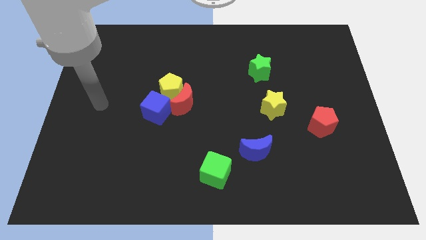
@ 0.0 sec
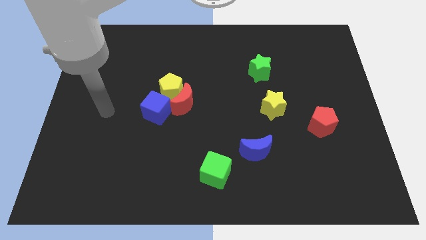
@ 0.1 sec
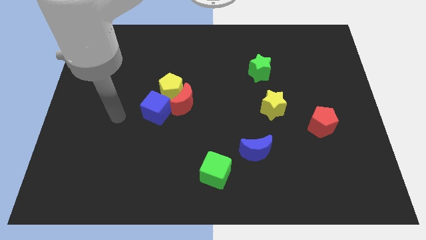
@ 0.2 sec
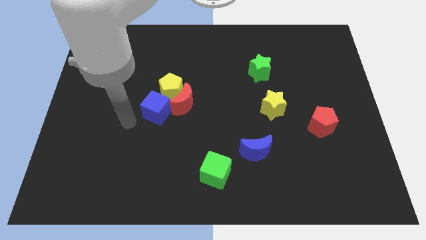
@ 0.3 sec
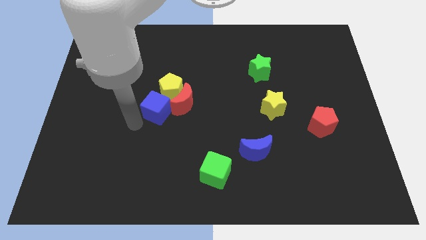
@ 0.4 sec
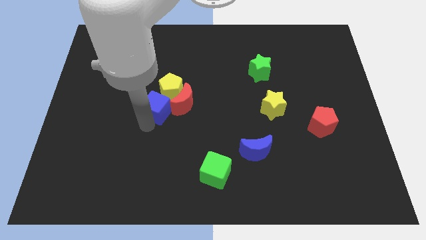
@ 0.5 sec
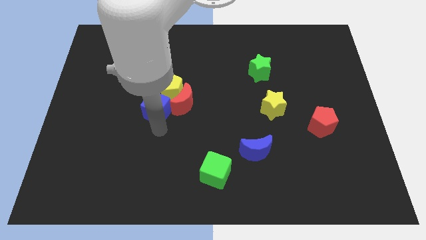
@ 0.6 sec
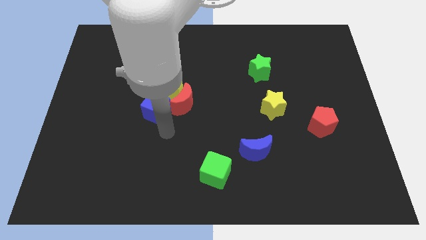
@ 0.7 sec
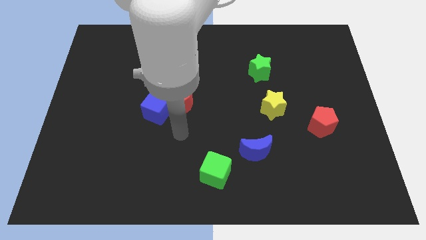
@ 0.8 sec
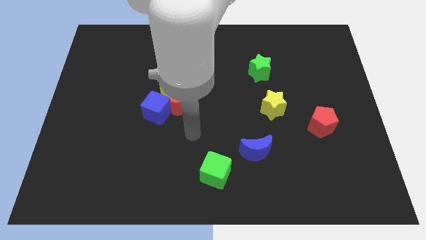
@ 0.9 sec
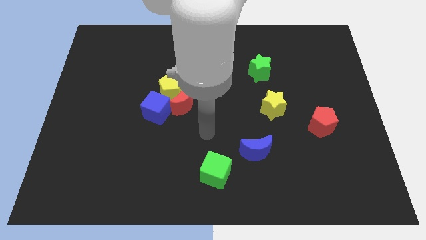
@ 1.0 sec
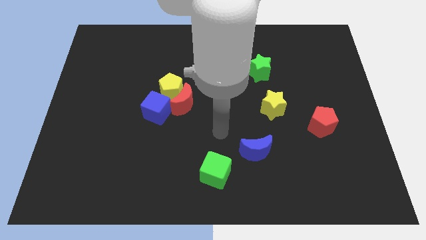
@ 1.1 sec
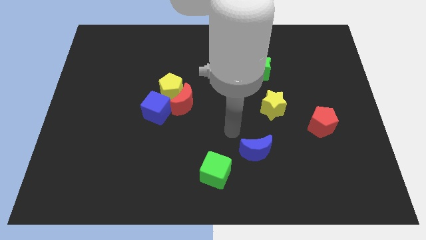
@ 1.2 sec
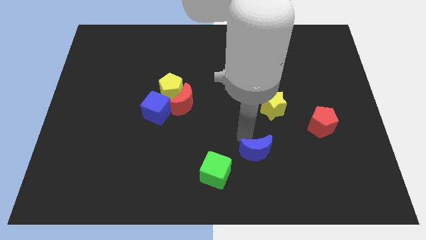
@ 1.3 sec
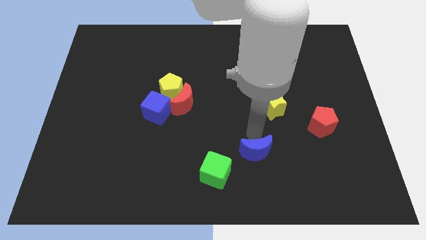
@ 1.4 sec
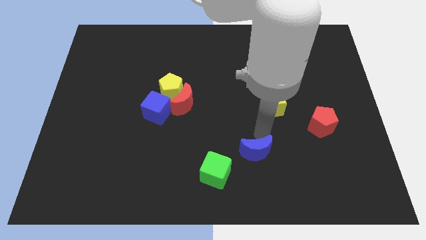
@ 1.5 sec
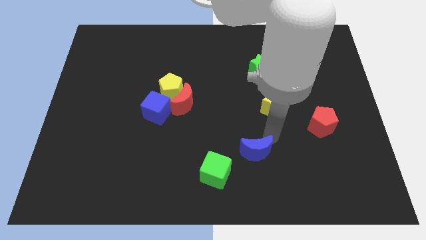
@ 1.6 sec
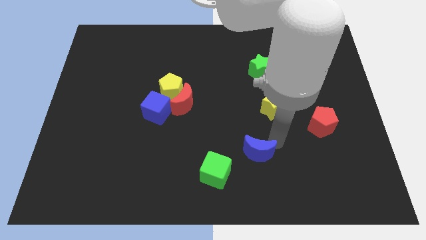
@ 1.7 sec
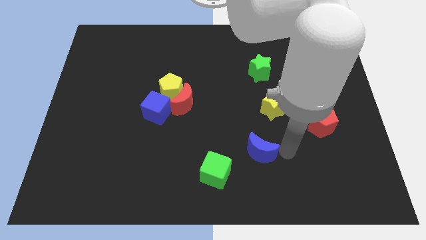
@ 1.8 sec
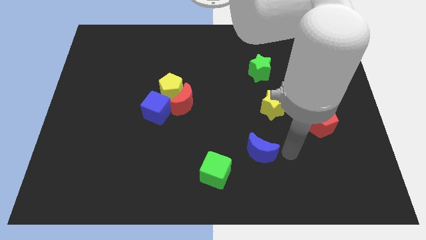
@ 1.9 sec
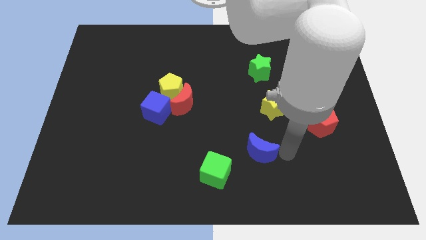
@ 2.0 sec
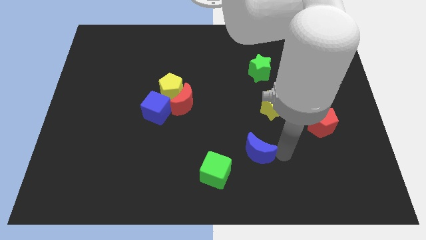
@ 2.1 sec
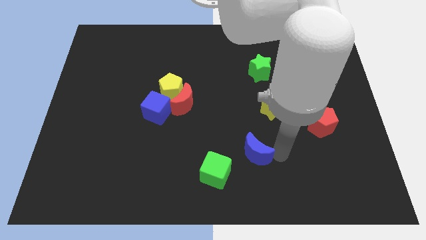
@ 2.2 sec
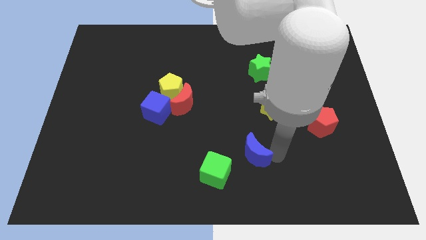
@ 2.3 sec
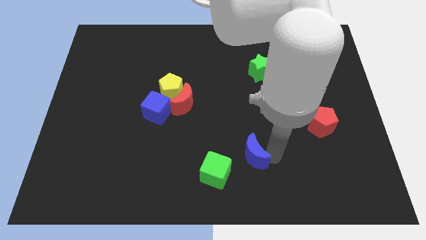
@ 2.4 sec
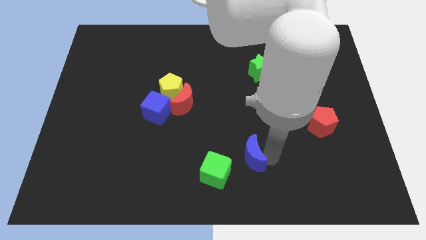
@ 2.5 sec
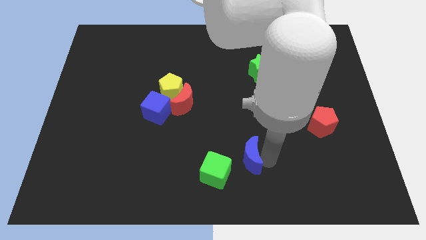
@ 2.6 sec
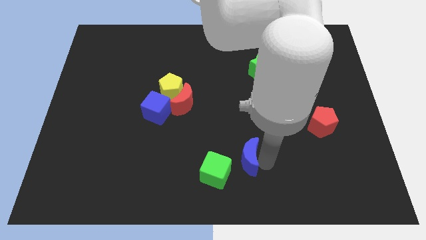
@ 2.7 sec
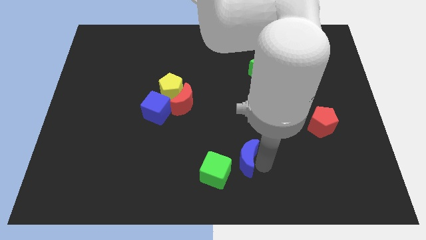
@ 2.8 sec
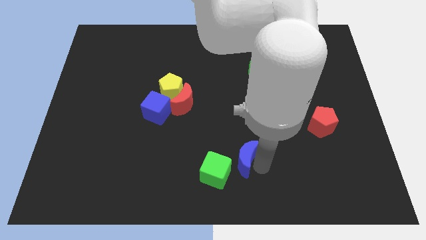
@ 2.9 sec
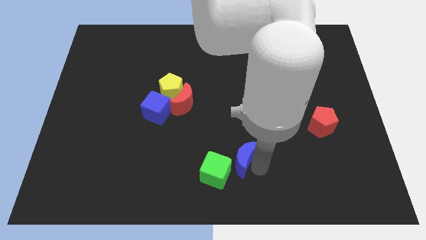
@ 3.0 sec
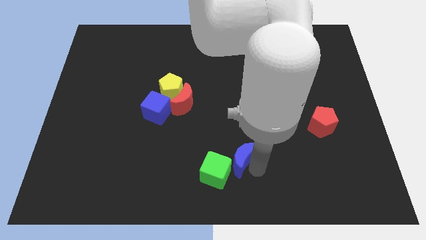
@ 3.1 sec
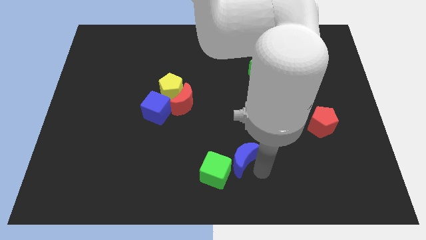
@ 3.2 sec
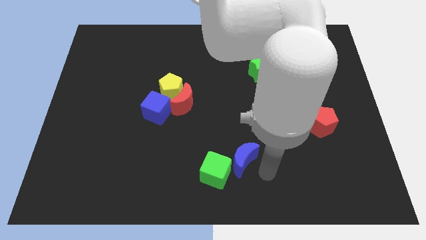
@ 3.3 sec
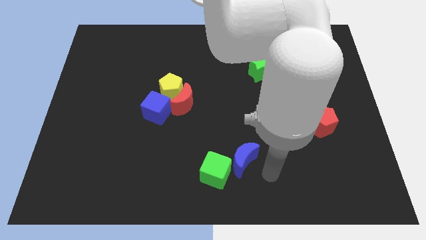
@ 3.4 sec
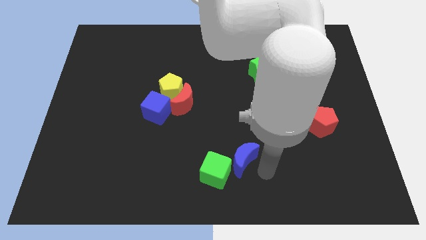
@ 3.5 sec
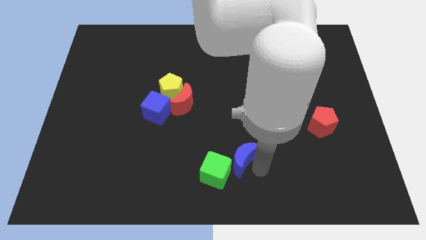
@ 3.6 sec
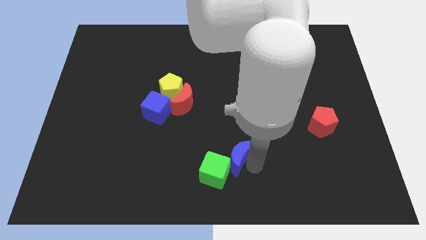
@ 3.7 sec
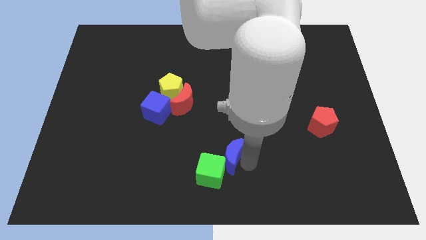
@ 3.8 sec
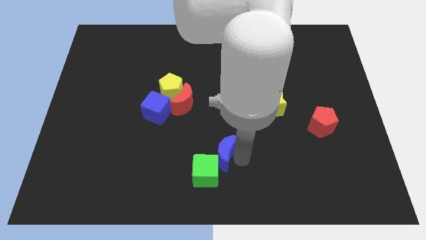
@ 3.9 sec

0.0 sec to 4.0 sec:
move the blue moon left a little bit

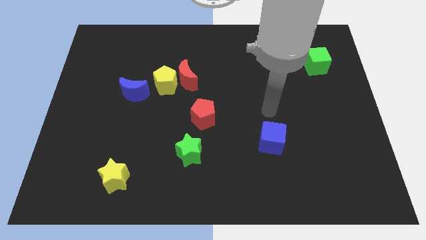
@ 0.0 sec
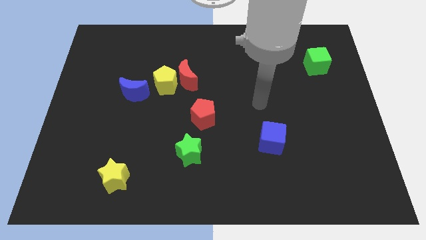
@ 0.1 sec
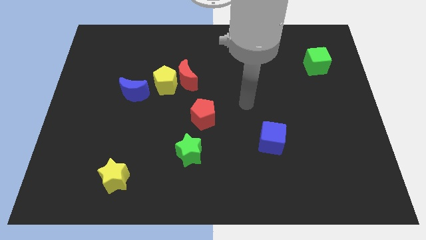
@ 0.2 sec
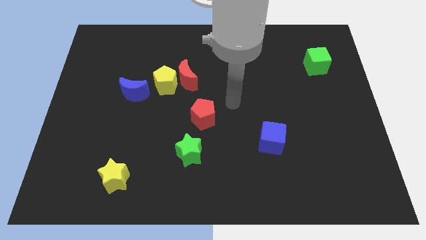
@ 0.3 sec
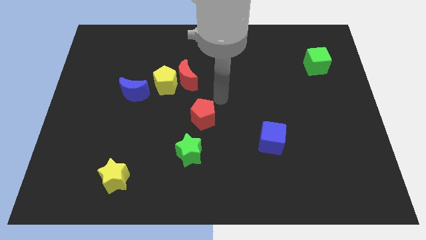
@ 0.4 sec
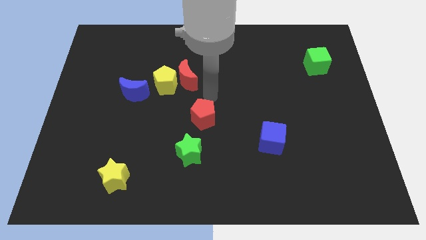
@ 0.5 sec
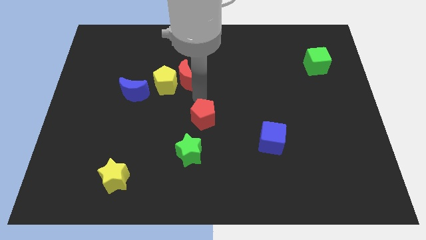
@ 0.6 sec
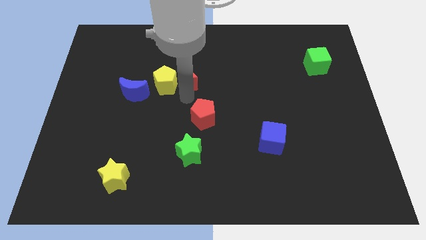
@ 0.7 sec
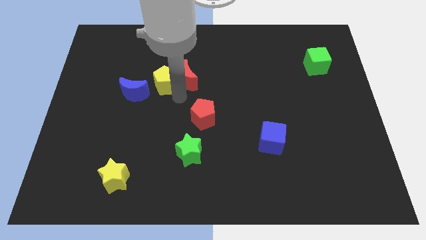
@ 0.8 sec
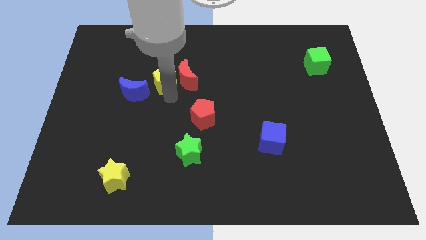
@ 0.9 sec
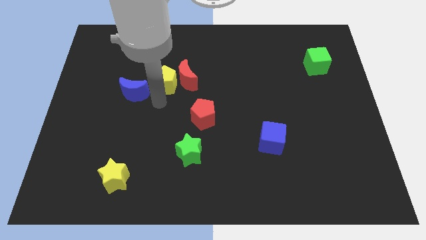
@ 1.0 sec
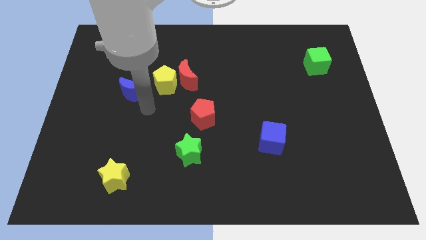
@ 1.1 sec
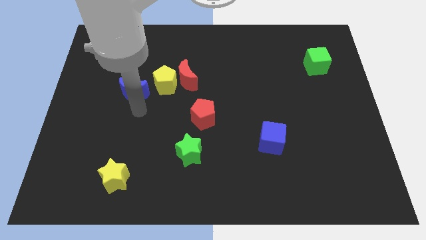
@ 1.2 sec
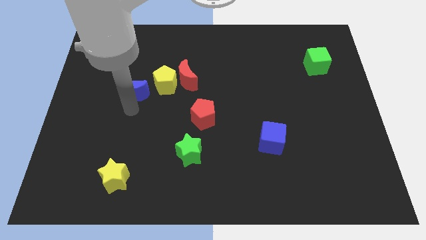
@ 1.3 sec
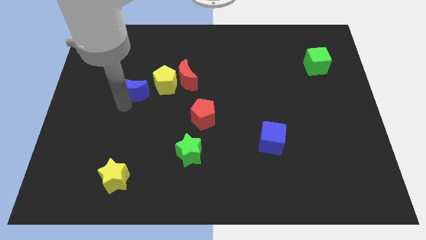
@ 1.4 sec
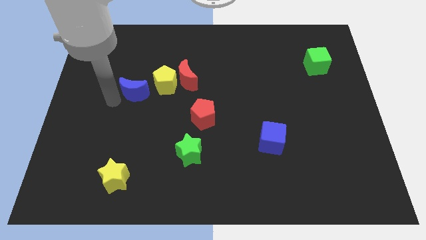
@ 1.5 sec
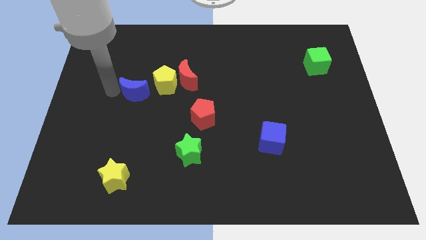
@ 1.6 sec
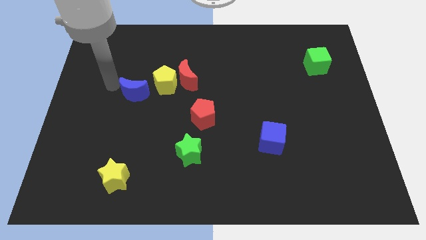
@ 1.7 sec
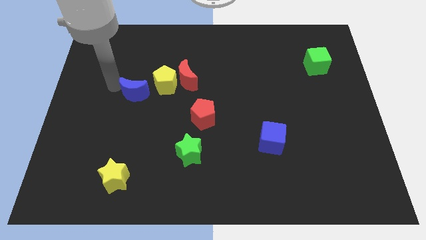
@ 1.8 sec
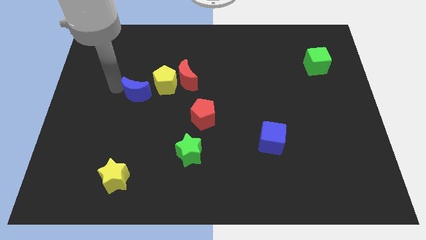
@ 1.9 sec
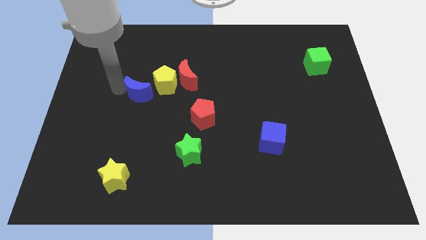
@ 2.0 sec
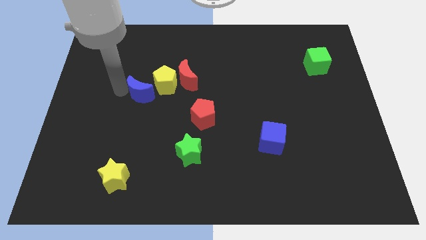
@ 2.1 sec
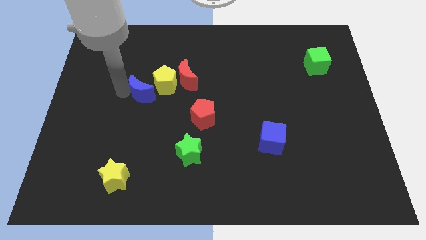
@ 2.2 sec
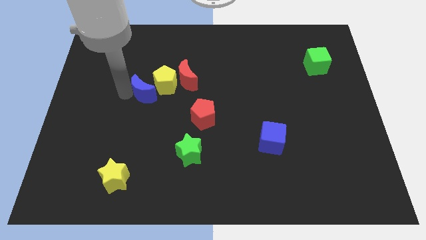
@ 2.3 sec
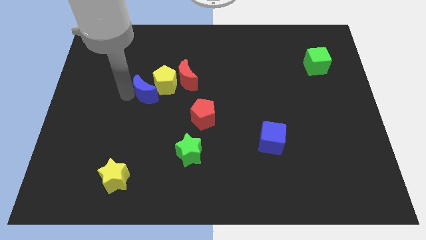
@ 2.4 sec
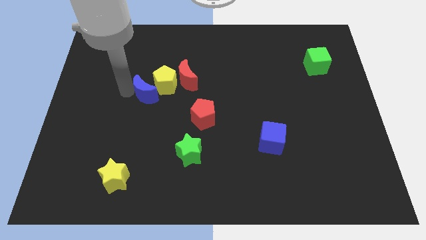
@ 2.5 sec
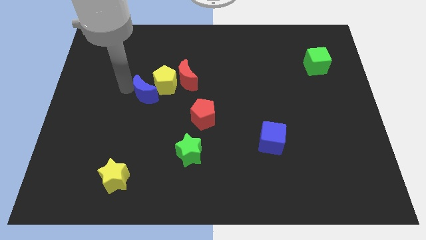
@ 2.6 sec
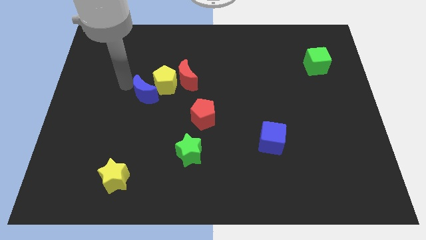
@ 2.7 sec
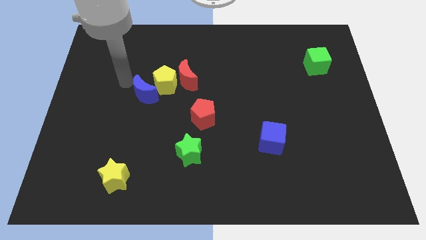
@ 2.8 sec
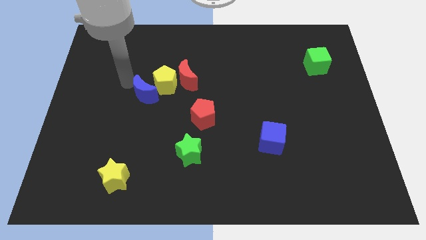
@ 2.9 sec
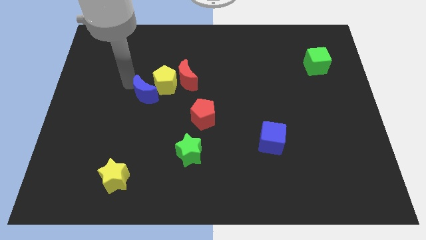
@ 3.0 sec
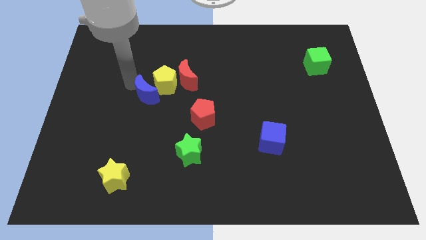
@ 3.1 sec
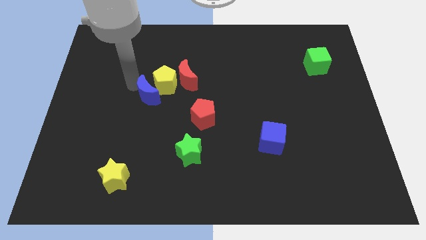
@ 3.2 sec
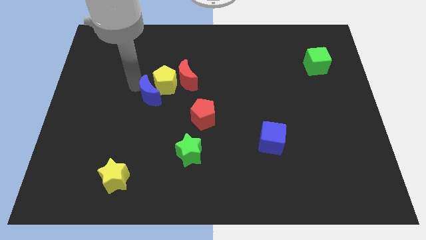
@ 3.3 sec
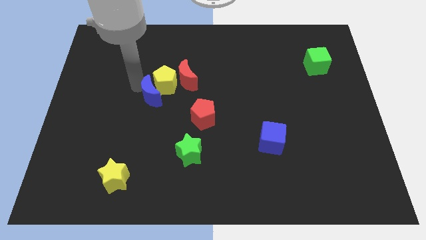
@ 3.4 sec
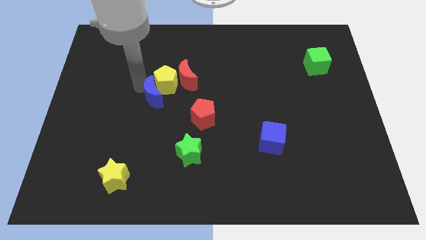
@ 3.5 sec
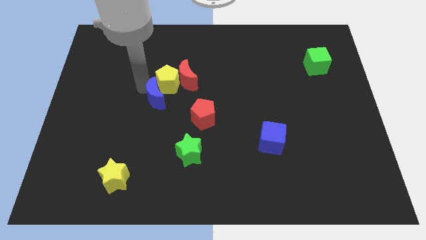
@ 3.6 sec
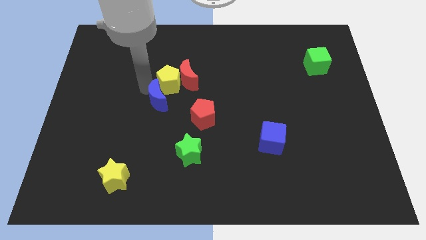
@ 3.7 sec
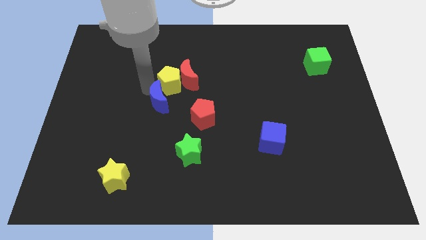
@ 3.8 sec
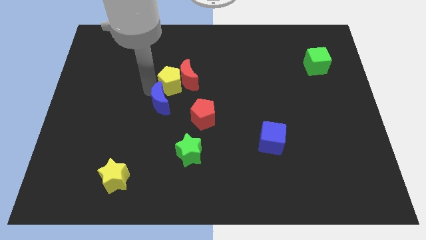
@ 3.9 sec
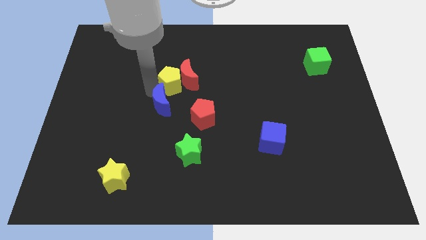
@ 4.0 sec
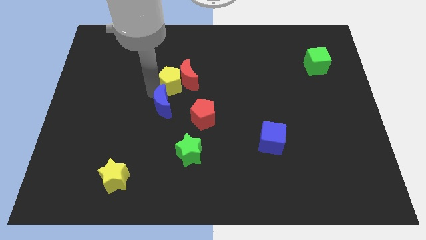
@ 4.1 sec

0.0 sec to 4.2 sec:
slide the blue moon a bit right
